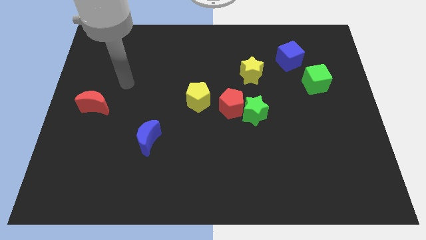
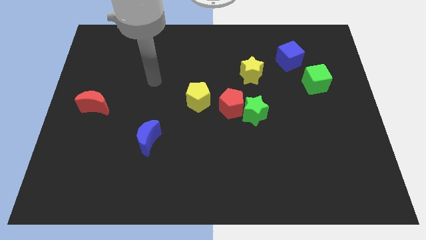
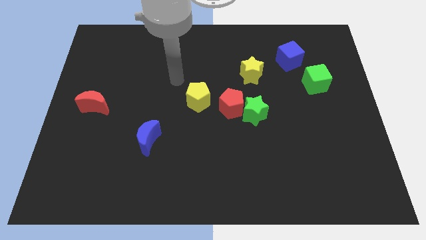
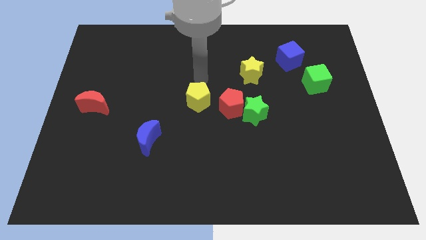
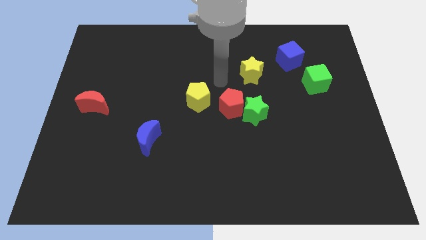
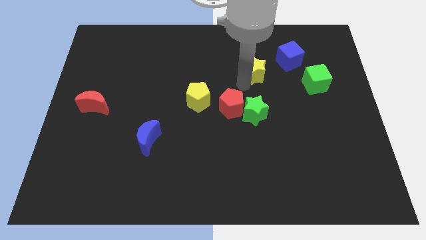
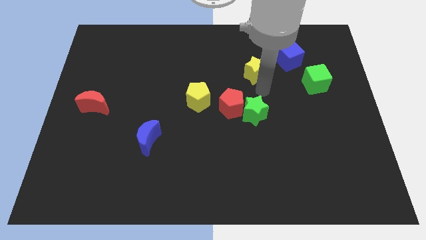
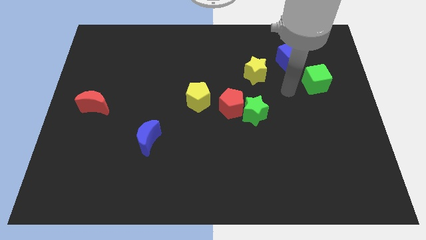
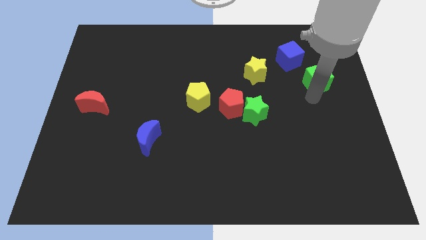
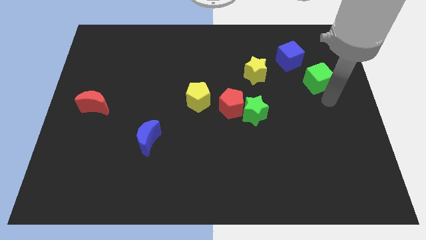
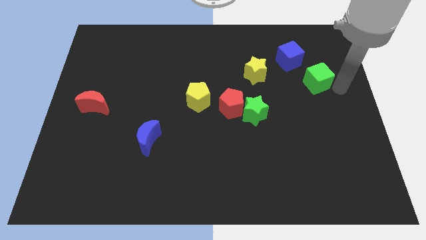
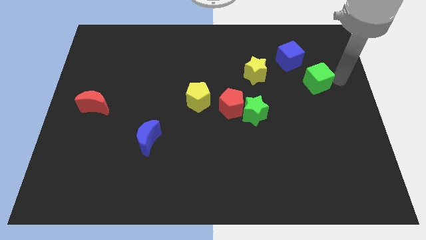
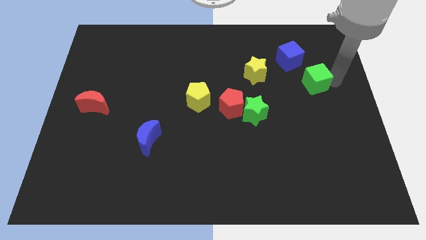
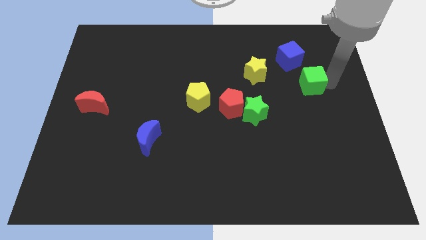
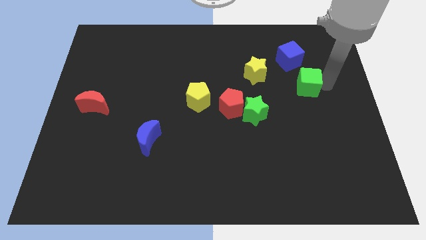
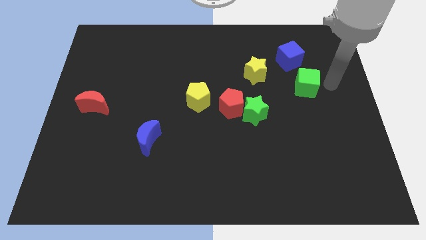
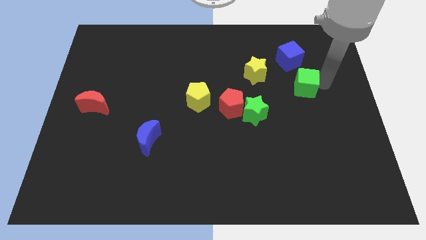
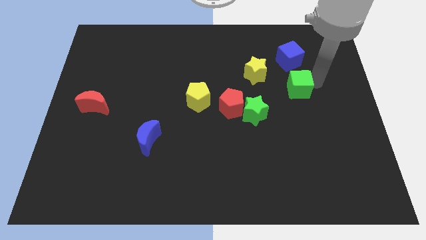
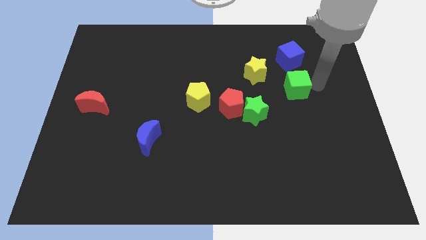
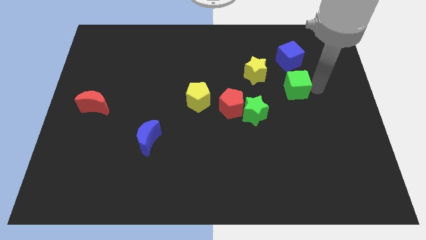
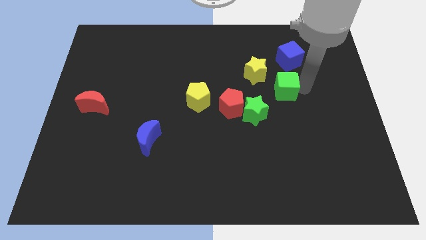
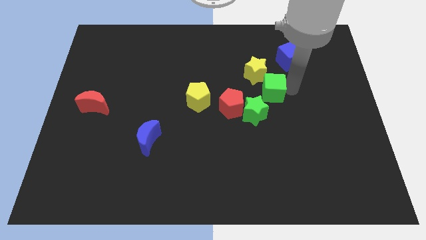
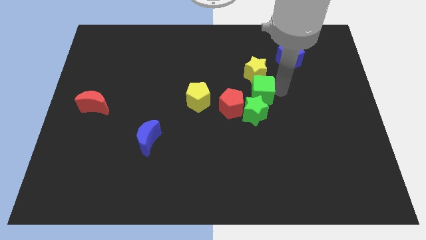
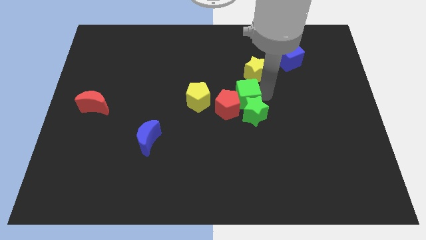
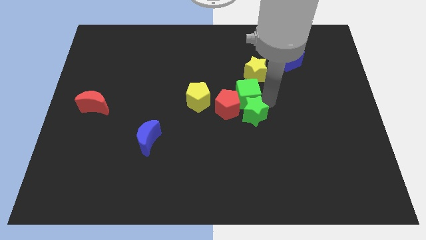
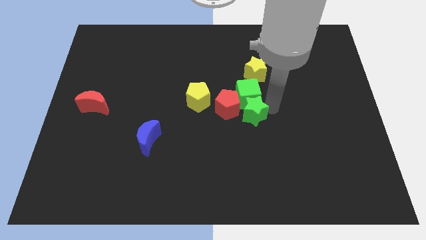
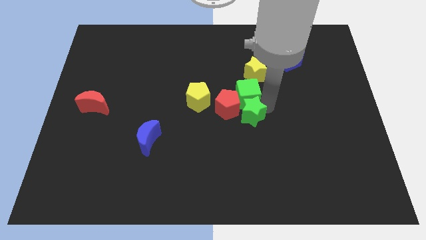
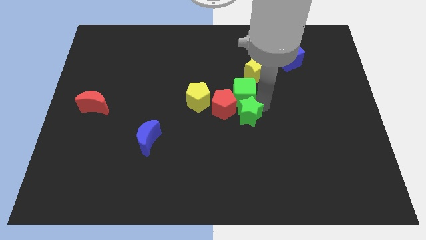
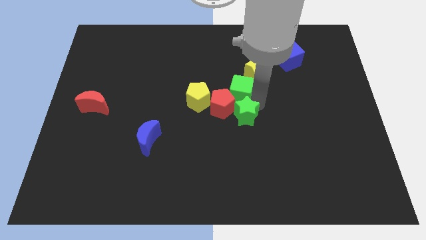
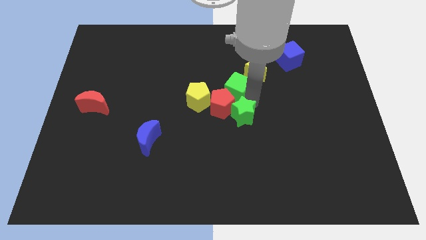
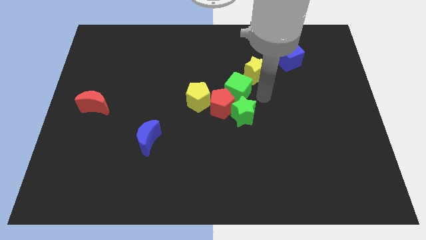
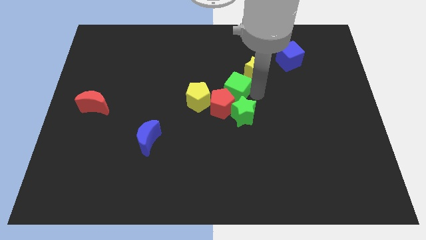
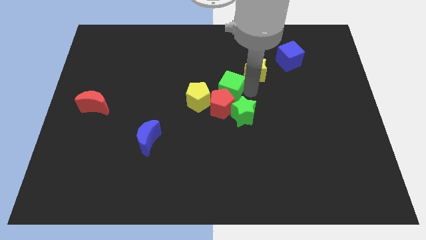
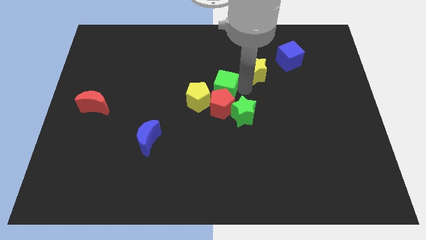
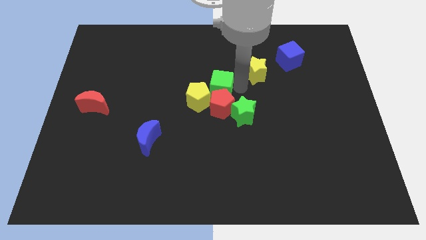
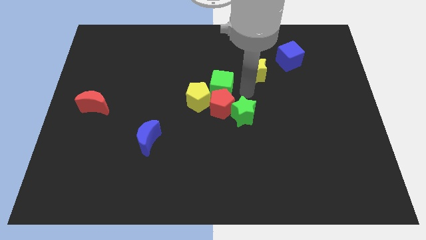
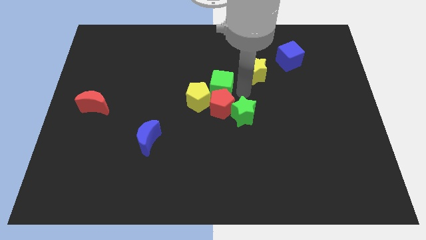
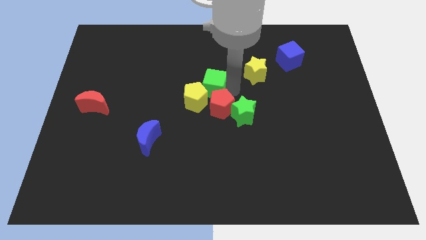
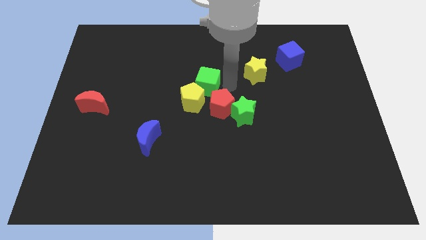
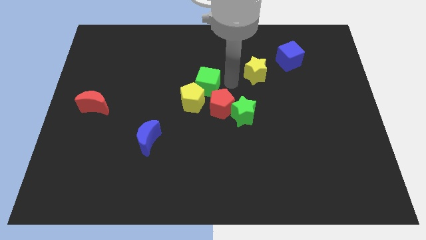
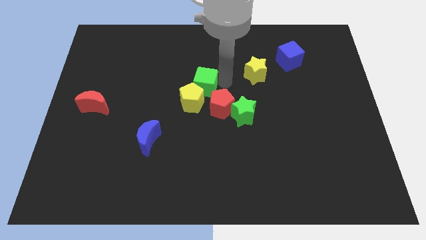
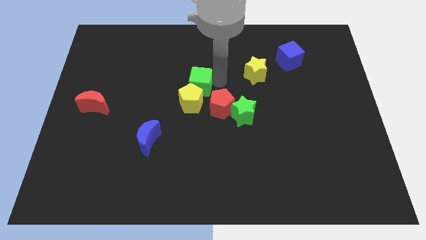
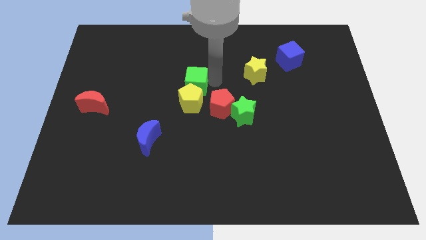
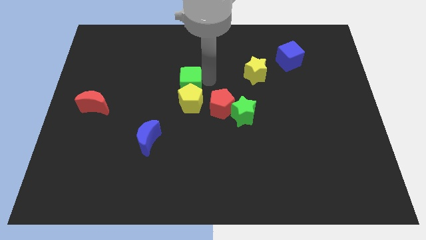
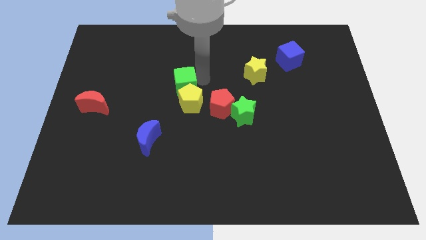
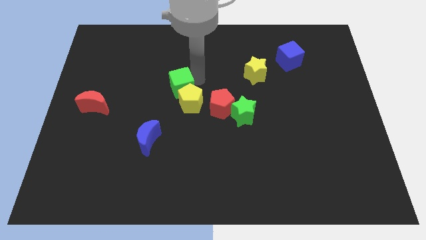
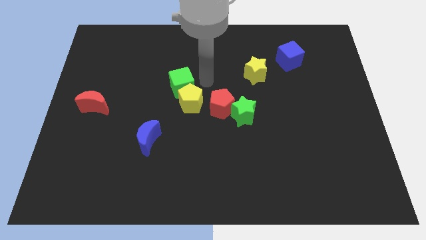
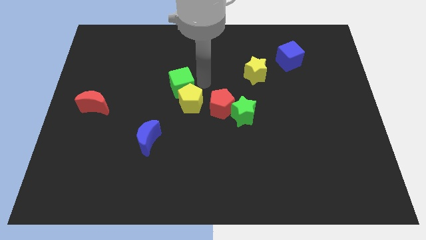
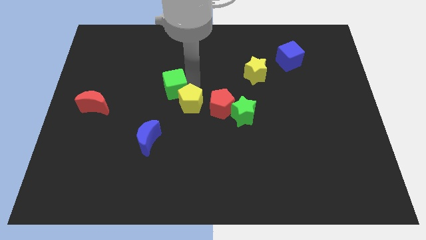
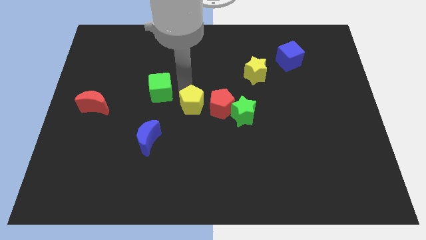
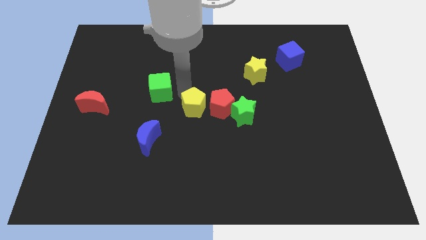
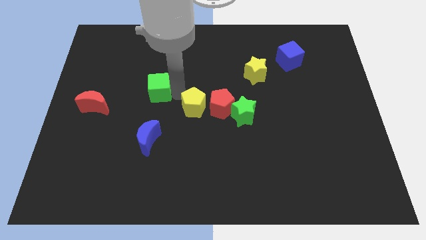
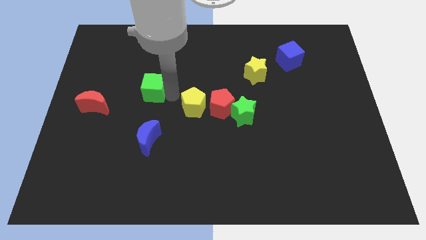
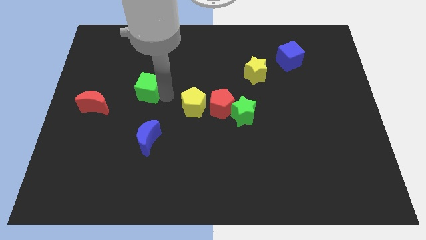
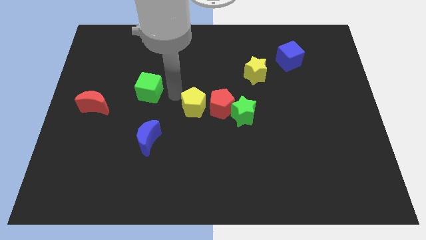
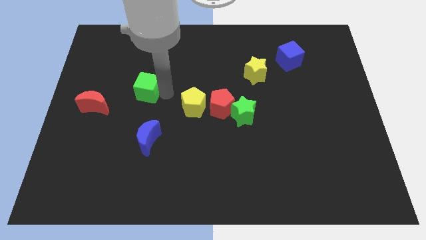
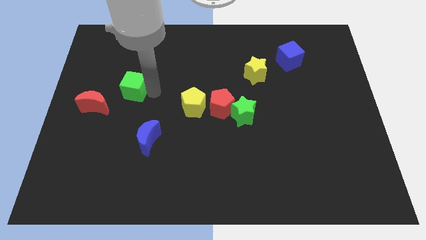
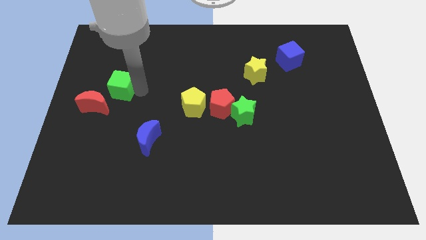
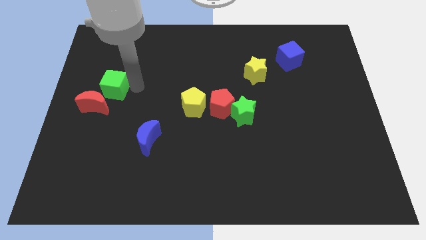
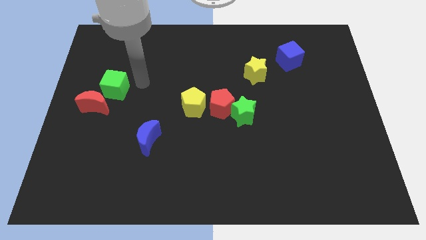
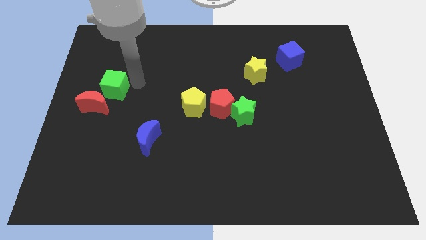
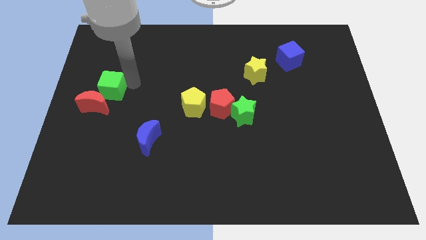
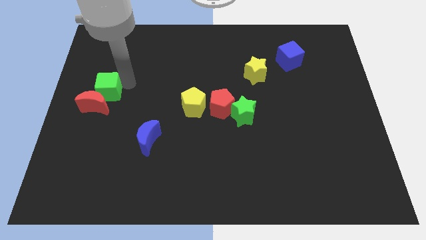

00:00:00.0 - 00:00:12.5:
slide the green cube to the left side of the board
